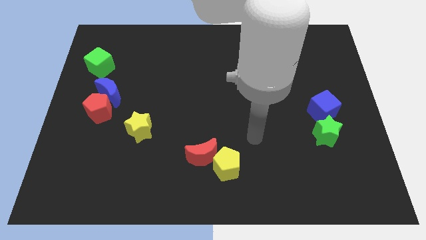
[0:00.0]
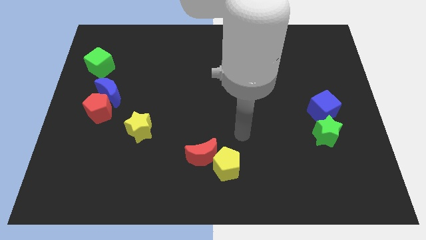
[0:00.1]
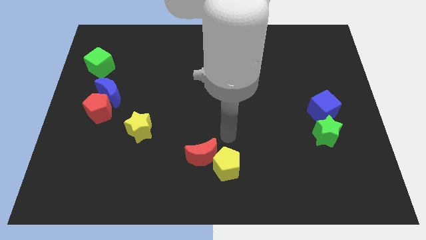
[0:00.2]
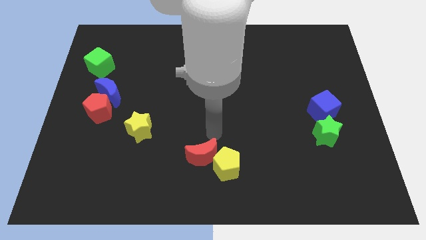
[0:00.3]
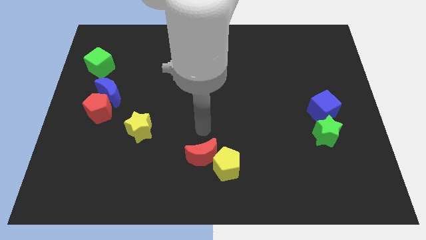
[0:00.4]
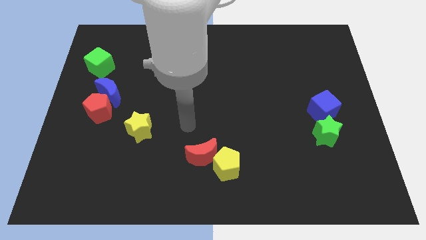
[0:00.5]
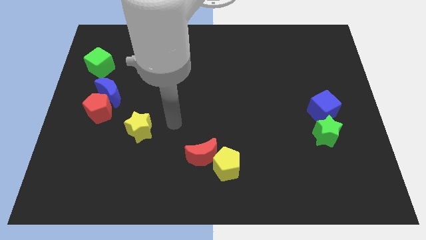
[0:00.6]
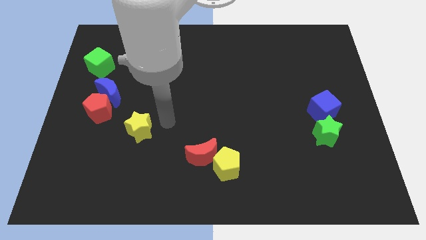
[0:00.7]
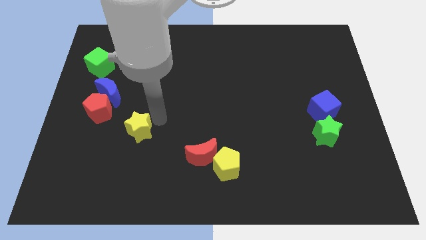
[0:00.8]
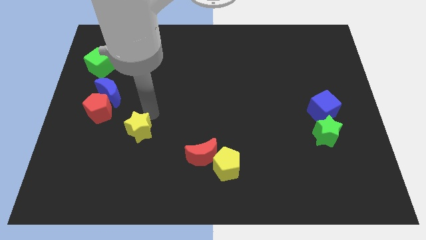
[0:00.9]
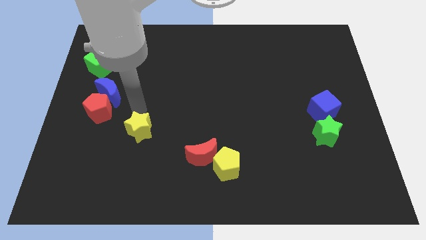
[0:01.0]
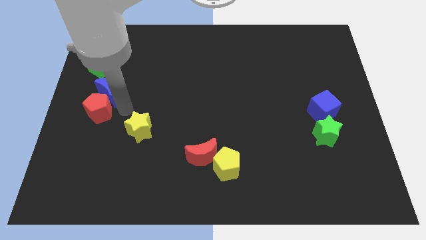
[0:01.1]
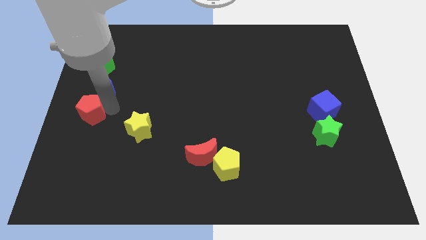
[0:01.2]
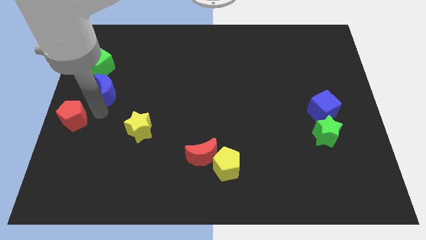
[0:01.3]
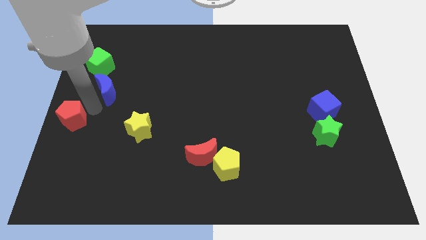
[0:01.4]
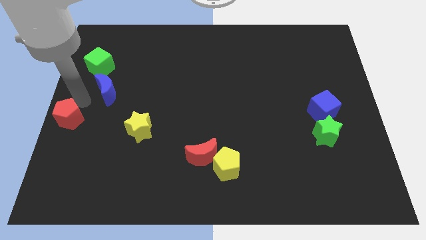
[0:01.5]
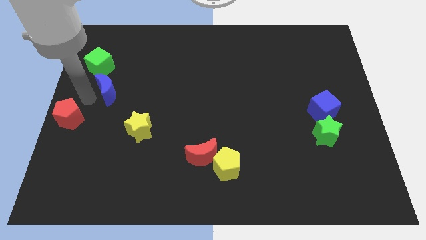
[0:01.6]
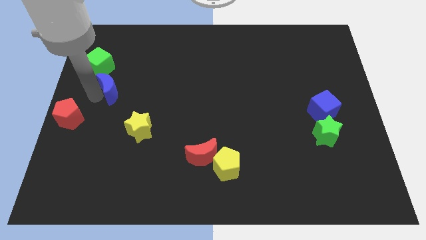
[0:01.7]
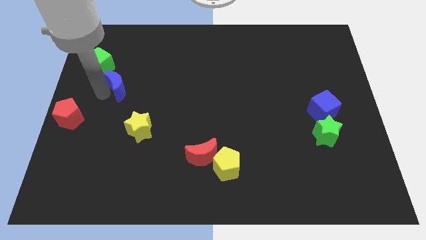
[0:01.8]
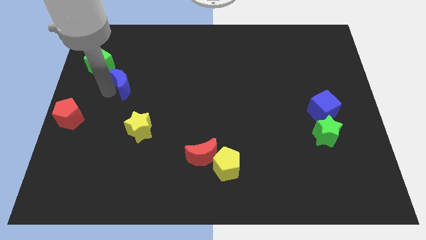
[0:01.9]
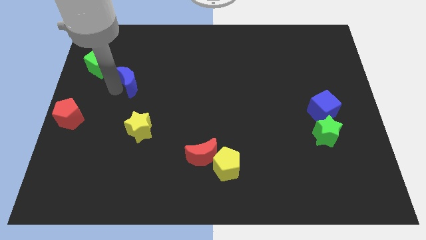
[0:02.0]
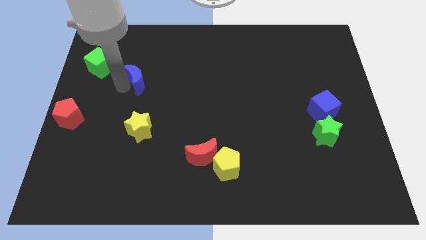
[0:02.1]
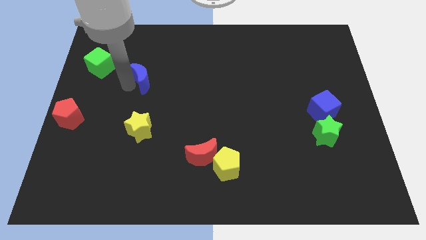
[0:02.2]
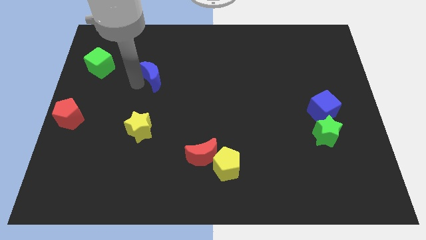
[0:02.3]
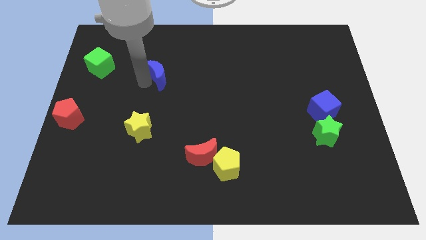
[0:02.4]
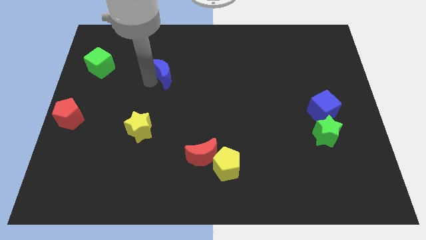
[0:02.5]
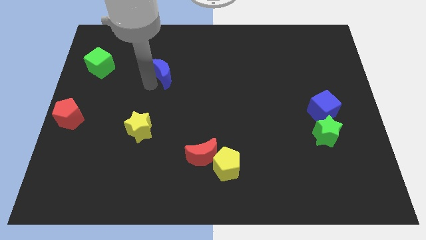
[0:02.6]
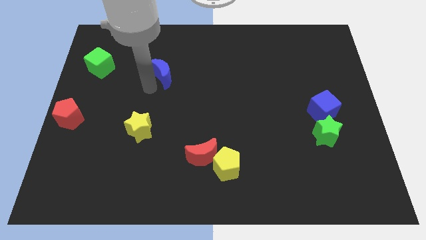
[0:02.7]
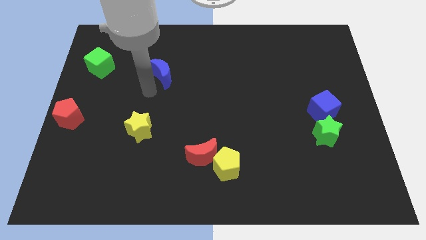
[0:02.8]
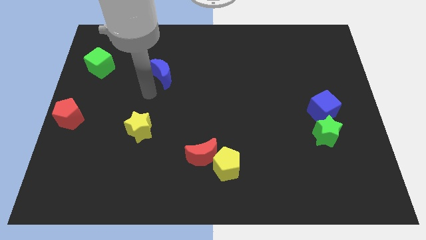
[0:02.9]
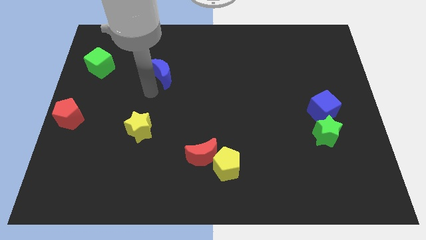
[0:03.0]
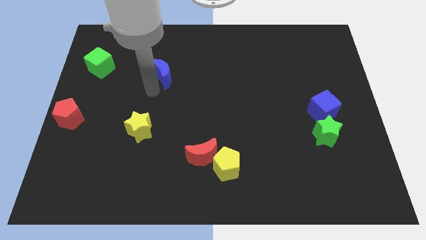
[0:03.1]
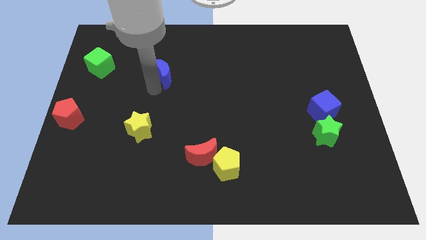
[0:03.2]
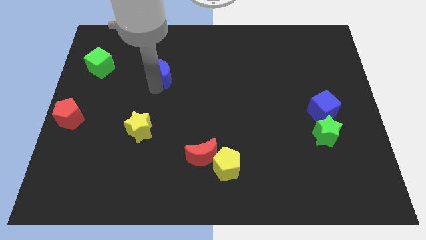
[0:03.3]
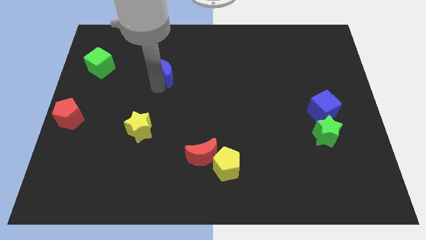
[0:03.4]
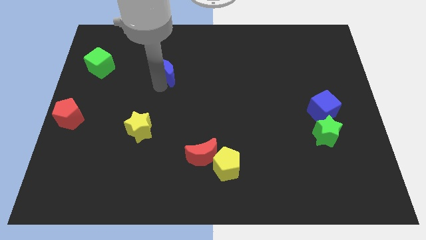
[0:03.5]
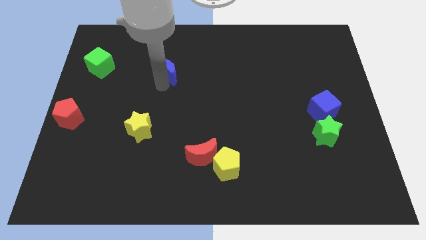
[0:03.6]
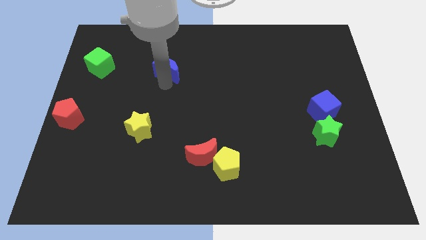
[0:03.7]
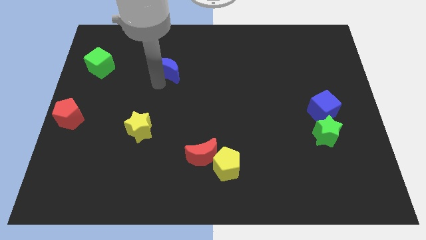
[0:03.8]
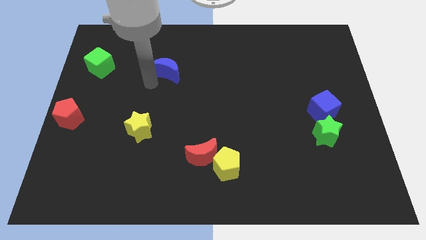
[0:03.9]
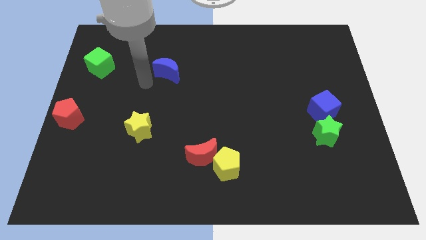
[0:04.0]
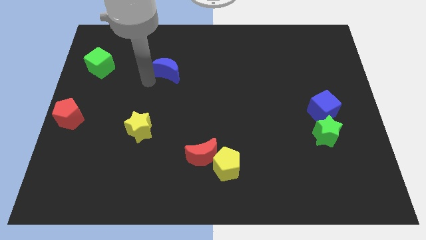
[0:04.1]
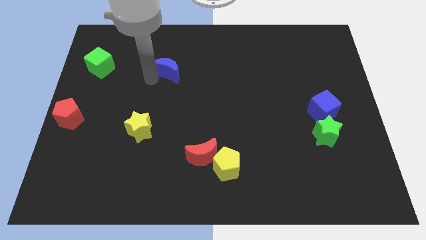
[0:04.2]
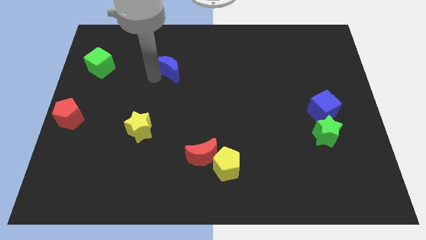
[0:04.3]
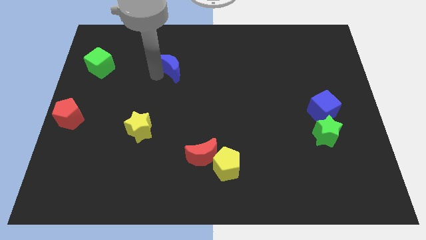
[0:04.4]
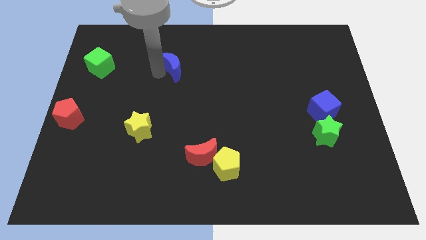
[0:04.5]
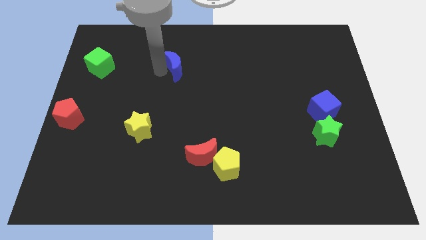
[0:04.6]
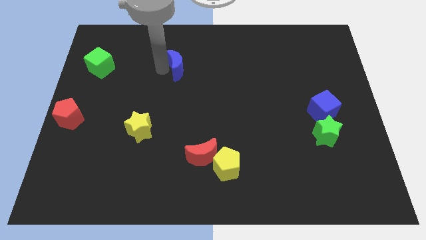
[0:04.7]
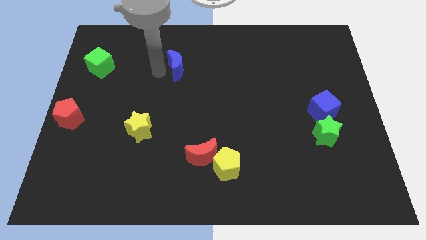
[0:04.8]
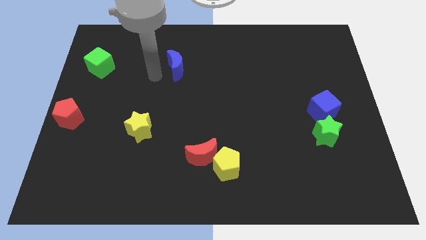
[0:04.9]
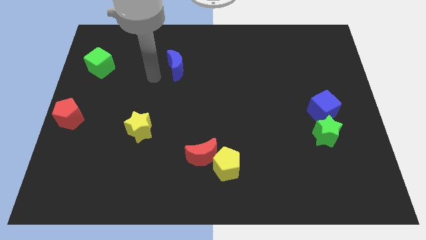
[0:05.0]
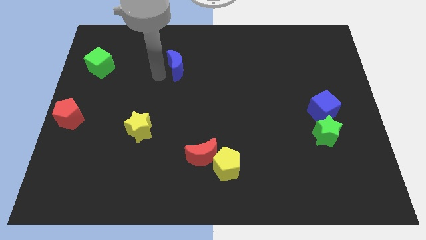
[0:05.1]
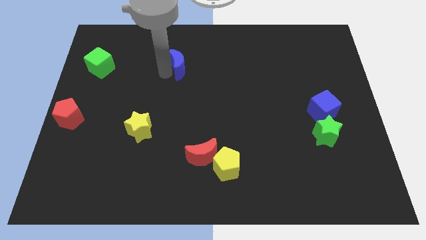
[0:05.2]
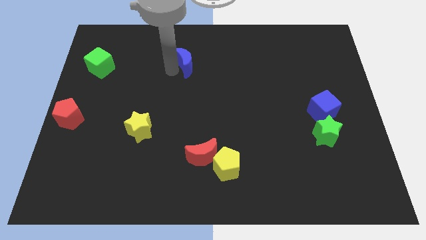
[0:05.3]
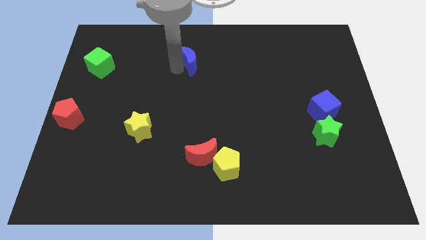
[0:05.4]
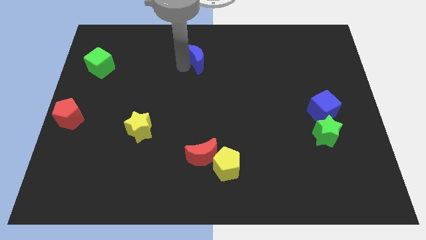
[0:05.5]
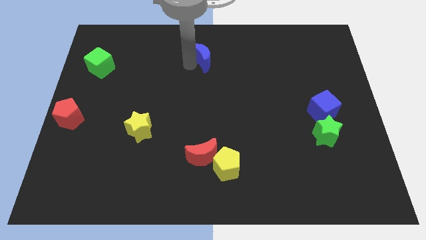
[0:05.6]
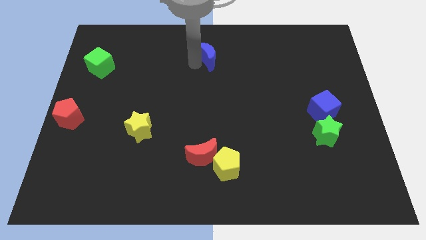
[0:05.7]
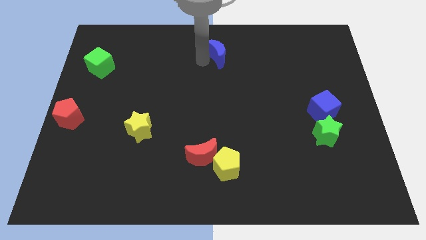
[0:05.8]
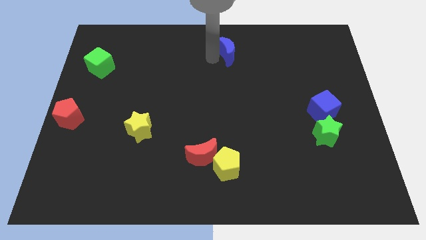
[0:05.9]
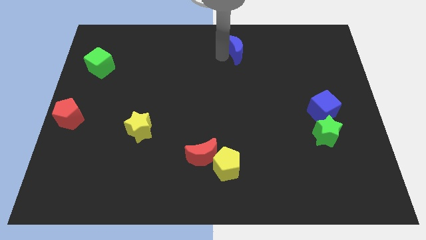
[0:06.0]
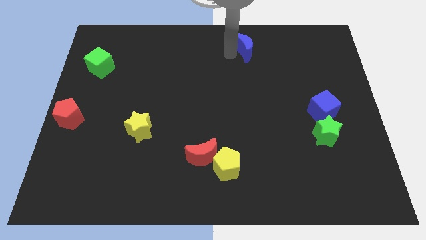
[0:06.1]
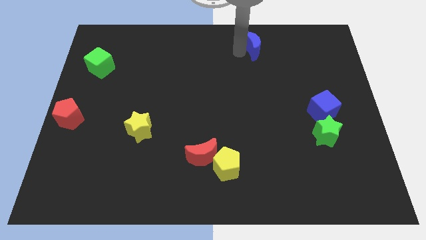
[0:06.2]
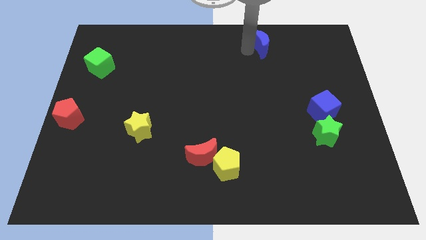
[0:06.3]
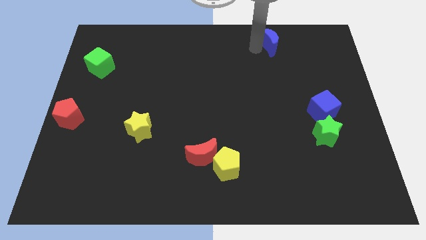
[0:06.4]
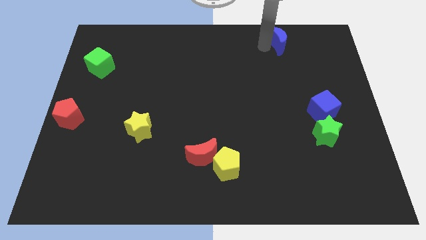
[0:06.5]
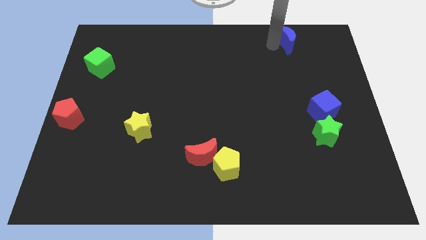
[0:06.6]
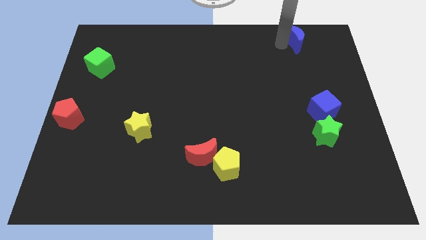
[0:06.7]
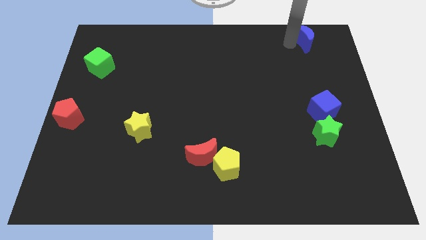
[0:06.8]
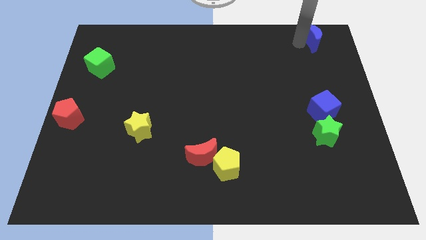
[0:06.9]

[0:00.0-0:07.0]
slide the blue moon to the upper right corner
